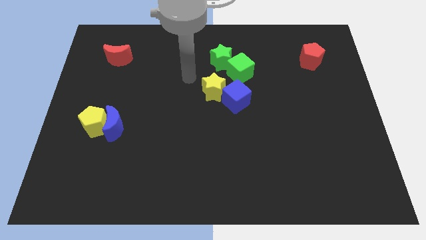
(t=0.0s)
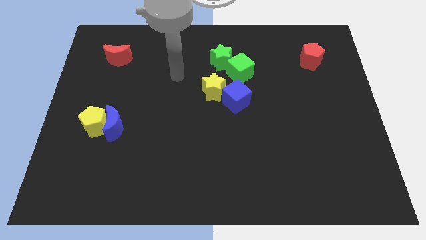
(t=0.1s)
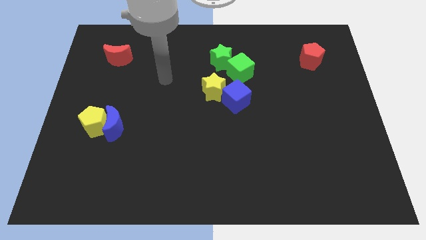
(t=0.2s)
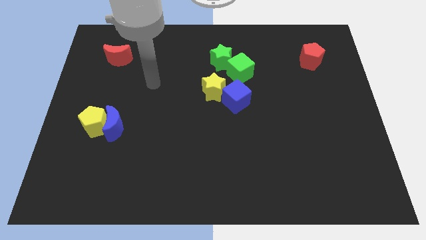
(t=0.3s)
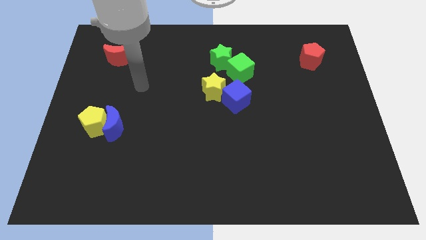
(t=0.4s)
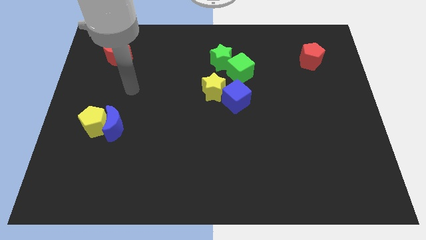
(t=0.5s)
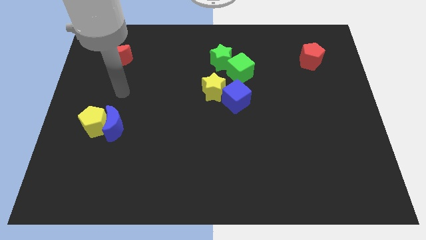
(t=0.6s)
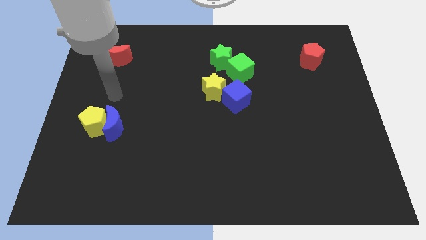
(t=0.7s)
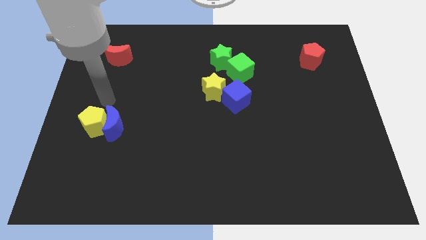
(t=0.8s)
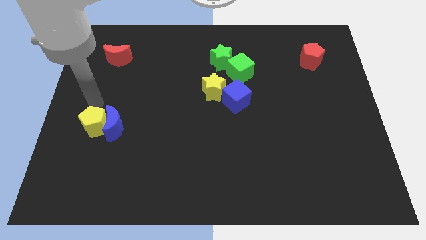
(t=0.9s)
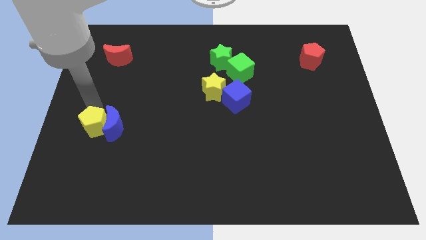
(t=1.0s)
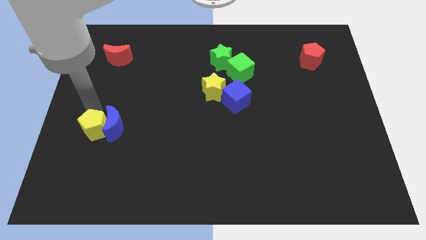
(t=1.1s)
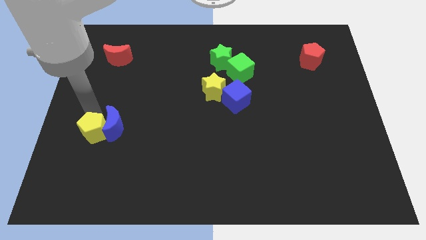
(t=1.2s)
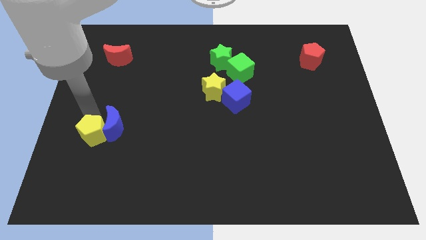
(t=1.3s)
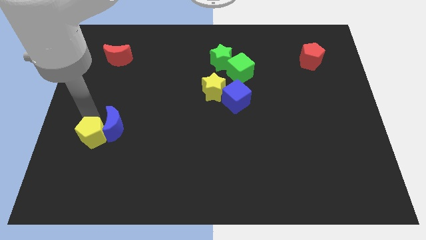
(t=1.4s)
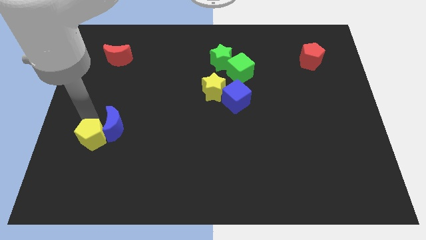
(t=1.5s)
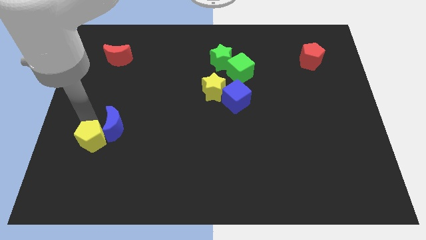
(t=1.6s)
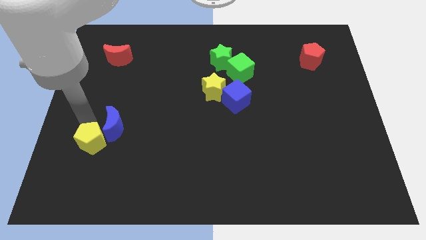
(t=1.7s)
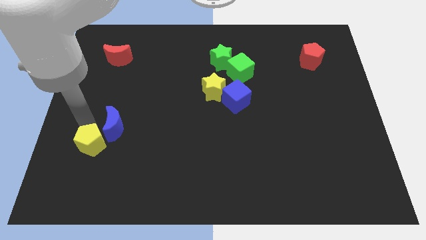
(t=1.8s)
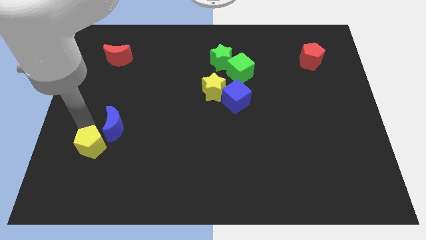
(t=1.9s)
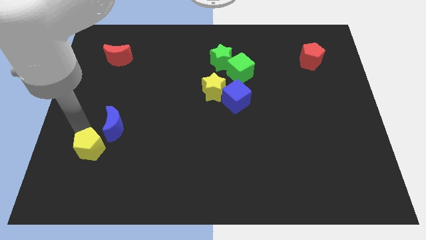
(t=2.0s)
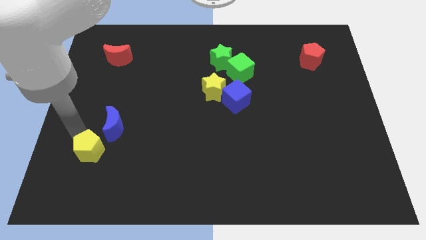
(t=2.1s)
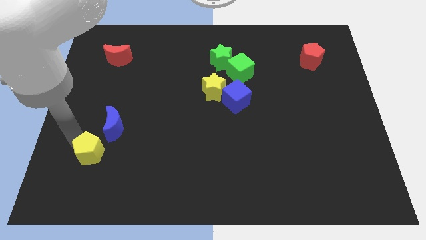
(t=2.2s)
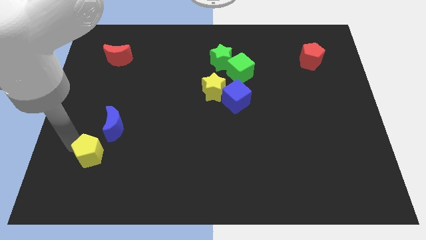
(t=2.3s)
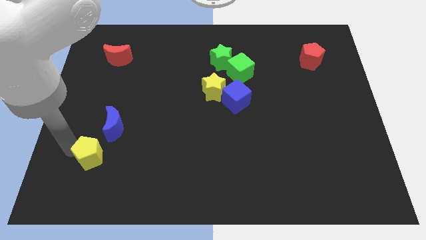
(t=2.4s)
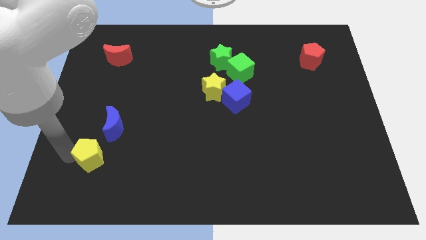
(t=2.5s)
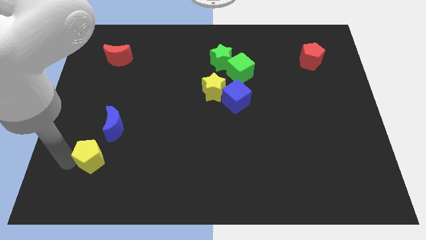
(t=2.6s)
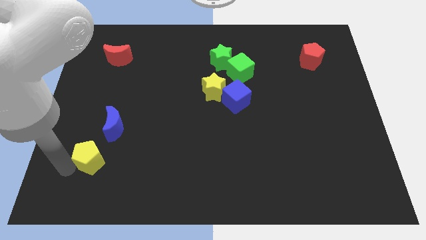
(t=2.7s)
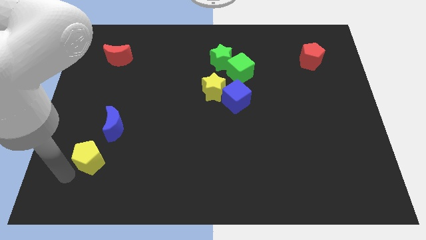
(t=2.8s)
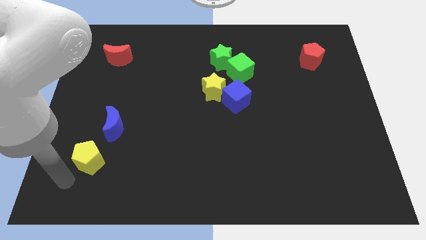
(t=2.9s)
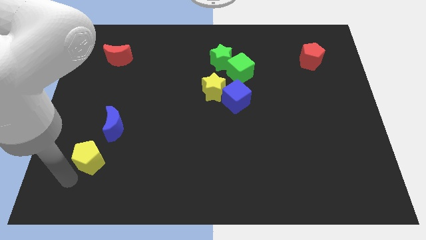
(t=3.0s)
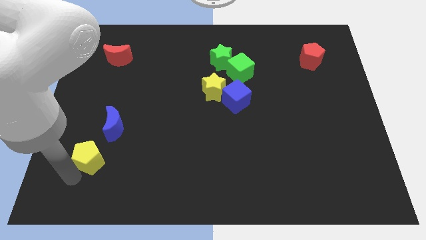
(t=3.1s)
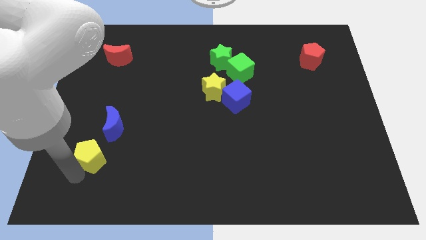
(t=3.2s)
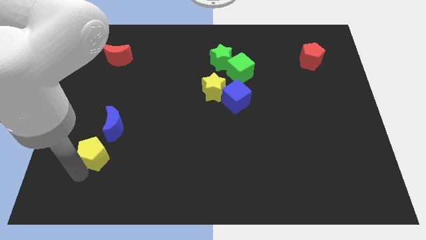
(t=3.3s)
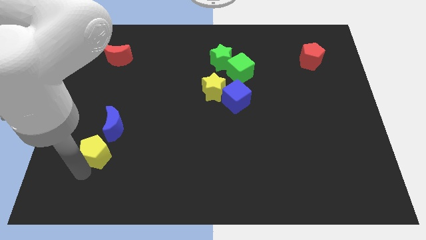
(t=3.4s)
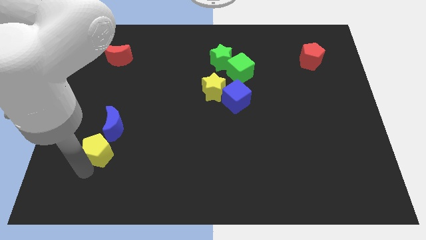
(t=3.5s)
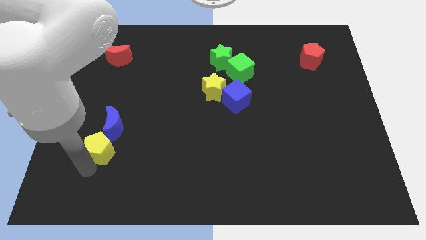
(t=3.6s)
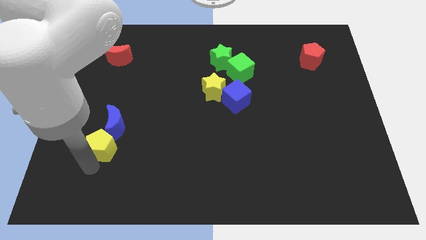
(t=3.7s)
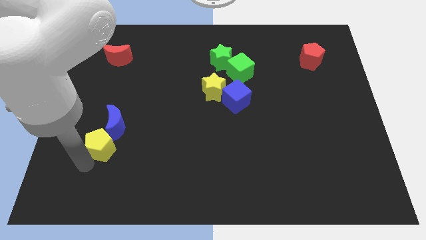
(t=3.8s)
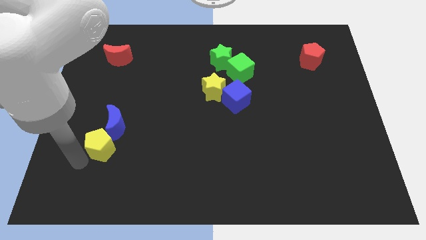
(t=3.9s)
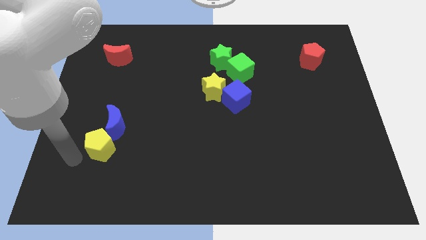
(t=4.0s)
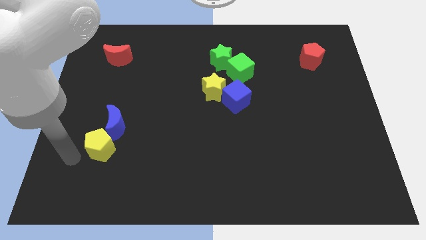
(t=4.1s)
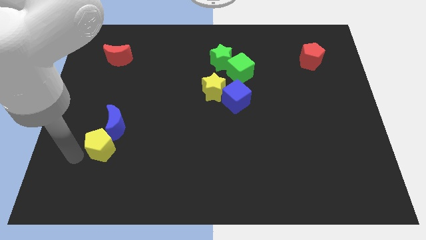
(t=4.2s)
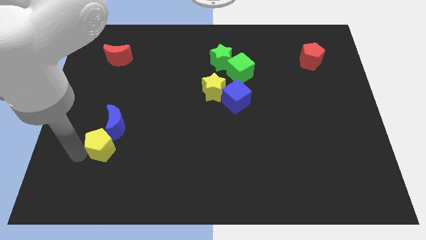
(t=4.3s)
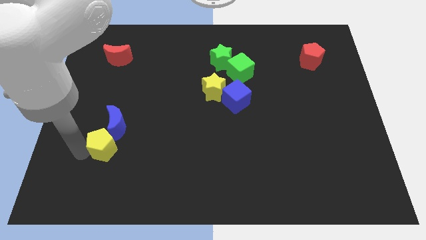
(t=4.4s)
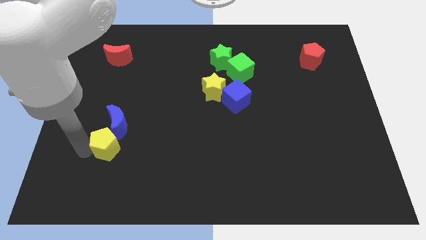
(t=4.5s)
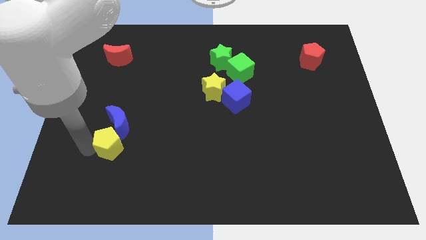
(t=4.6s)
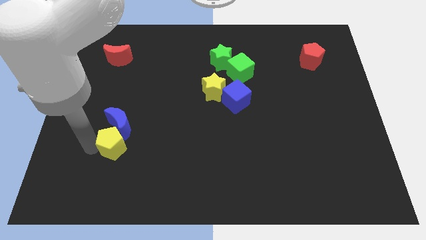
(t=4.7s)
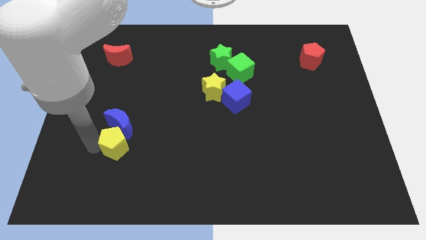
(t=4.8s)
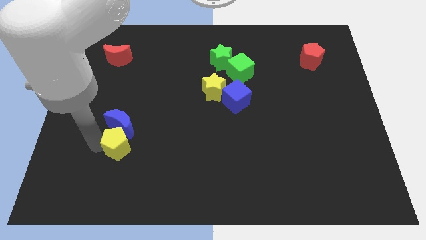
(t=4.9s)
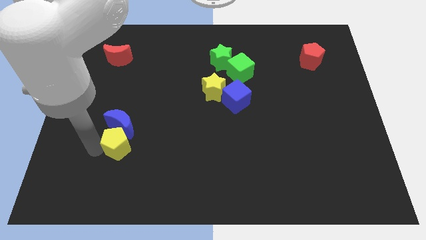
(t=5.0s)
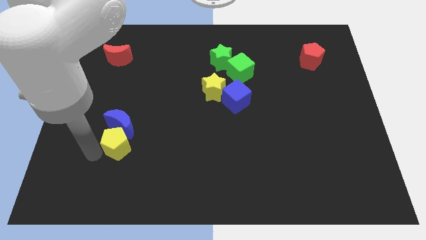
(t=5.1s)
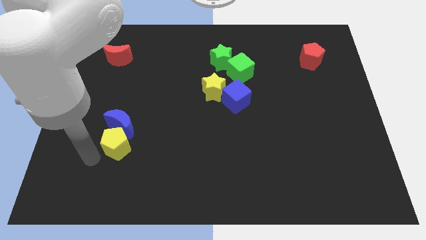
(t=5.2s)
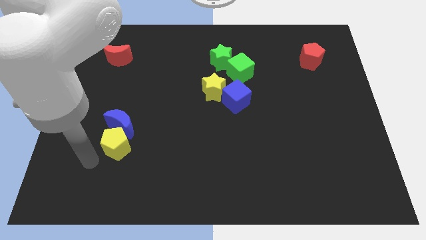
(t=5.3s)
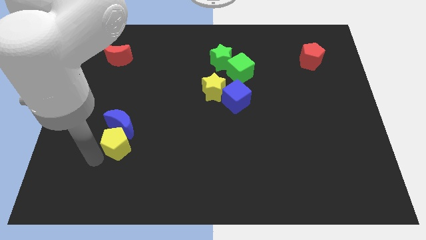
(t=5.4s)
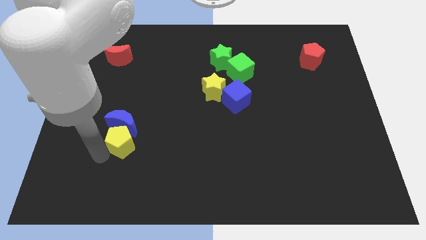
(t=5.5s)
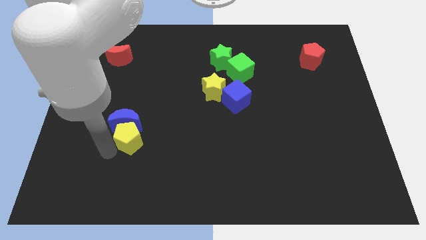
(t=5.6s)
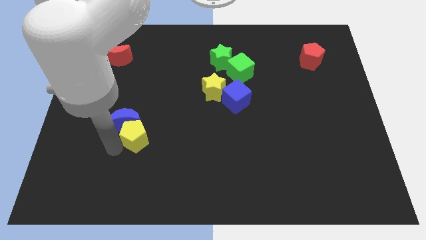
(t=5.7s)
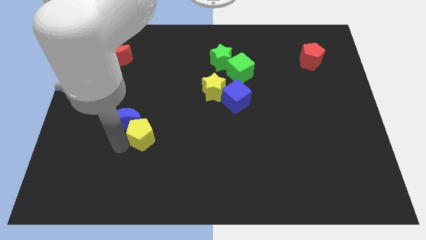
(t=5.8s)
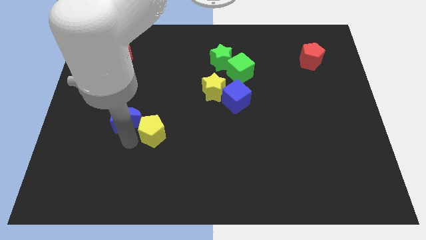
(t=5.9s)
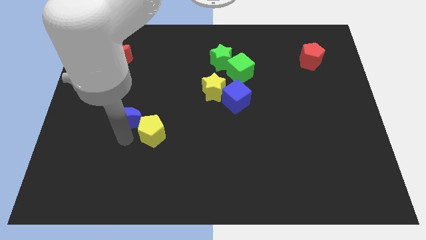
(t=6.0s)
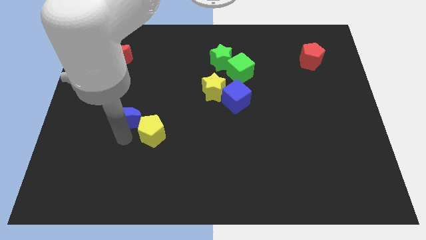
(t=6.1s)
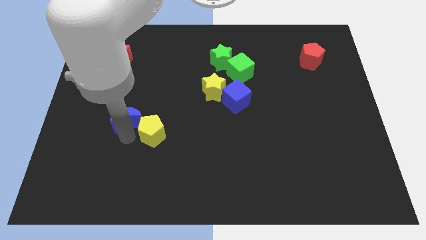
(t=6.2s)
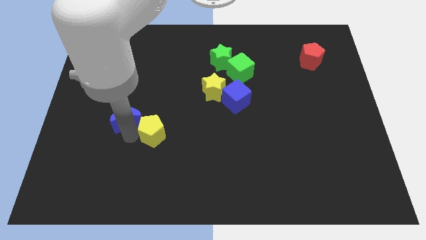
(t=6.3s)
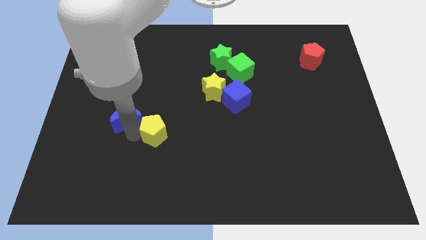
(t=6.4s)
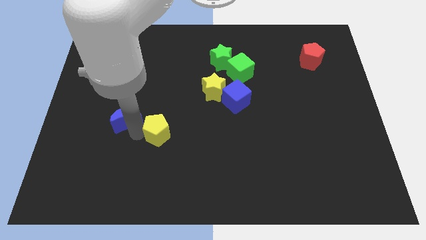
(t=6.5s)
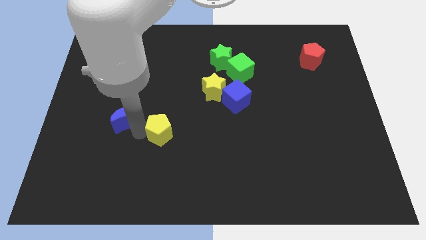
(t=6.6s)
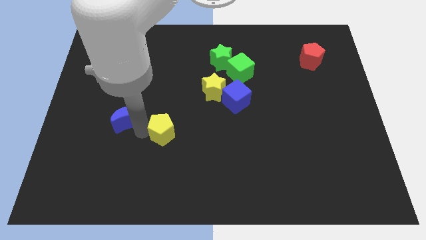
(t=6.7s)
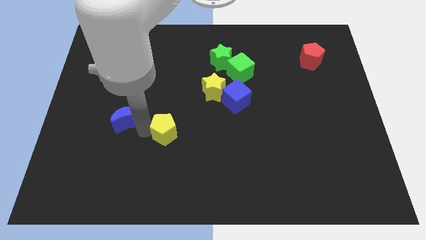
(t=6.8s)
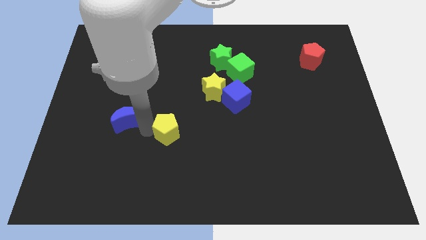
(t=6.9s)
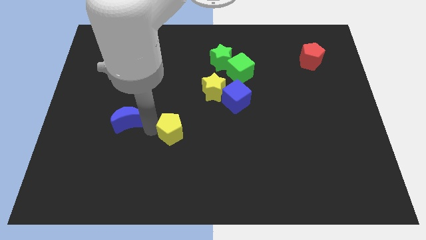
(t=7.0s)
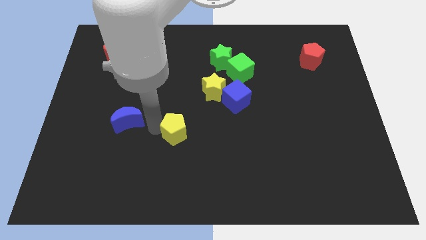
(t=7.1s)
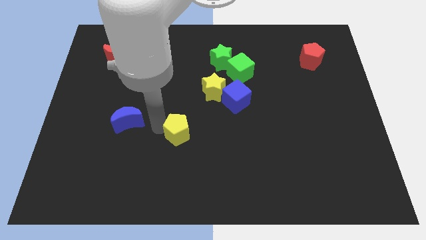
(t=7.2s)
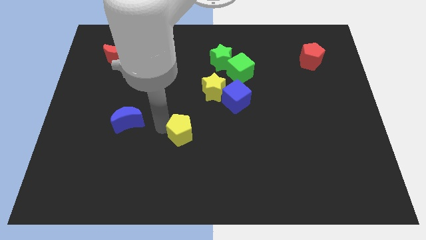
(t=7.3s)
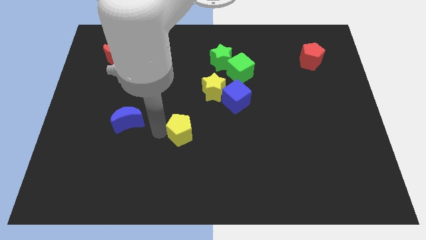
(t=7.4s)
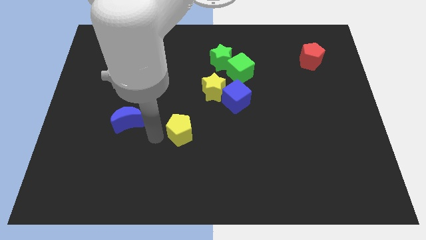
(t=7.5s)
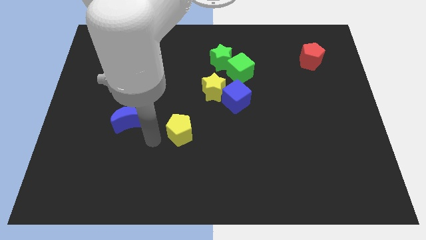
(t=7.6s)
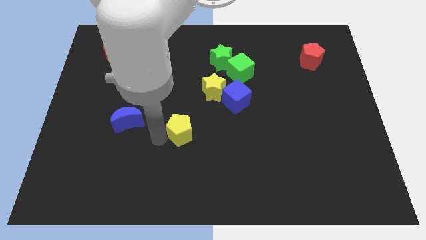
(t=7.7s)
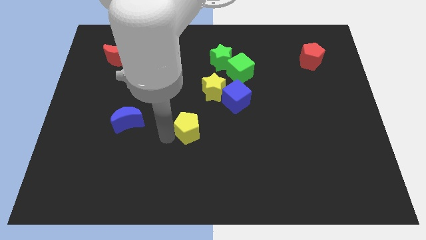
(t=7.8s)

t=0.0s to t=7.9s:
move the yellow pentagon to the right

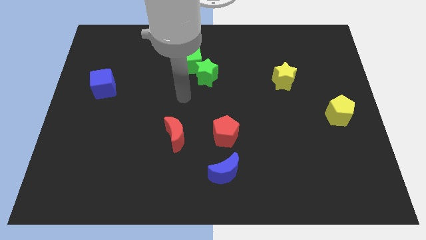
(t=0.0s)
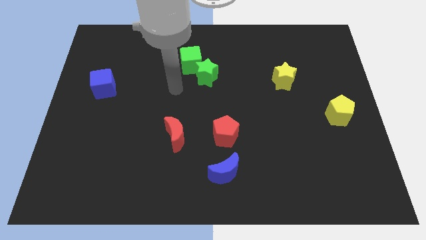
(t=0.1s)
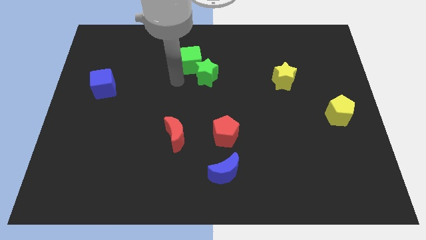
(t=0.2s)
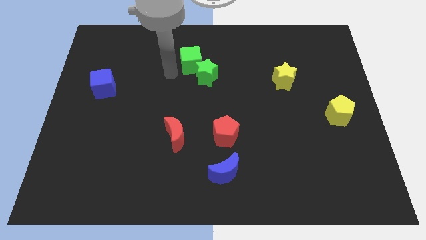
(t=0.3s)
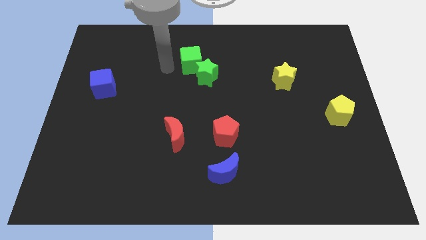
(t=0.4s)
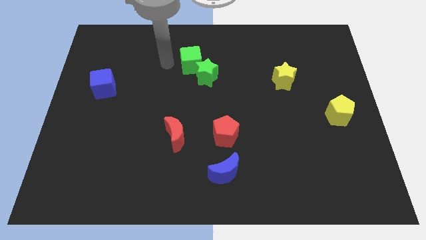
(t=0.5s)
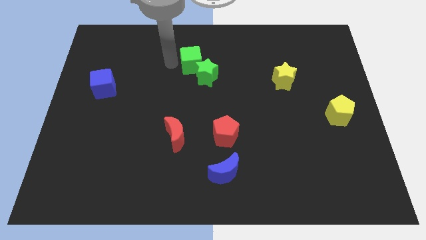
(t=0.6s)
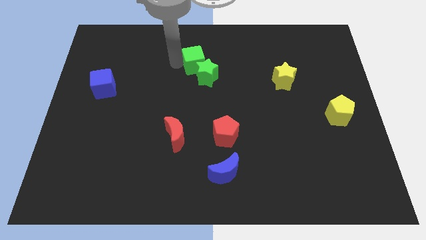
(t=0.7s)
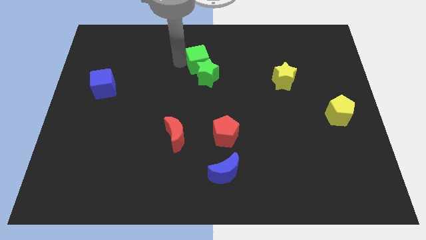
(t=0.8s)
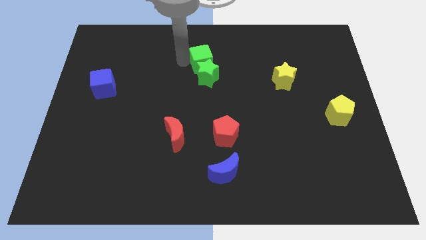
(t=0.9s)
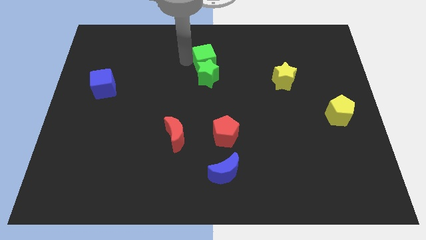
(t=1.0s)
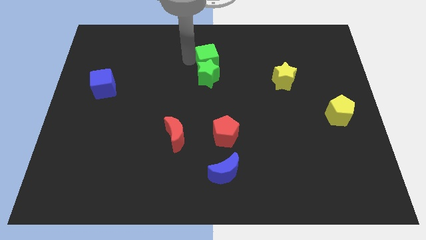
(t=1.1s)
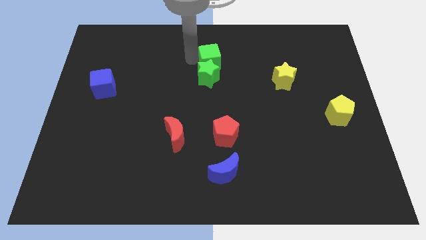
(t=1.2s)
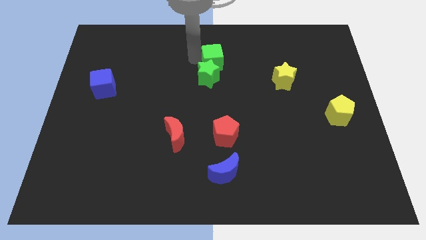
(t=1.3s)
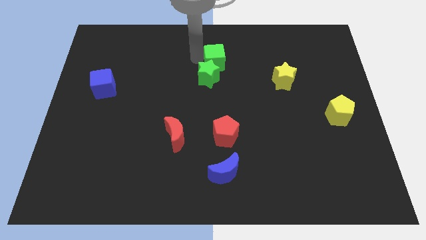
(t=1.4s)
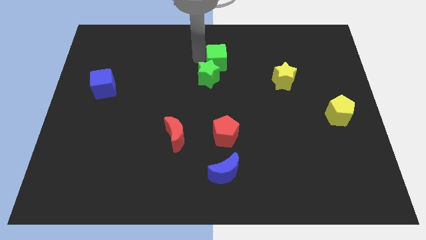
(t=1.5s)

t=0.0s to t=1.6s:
slightly move the green cube to the right
